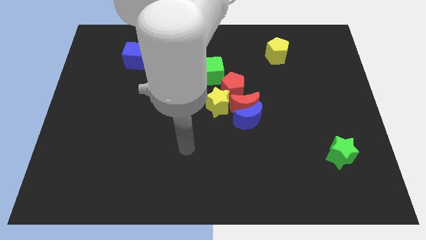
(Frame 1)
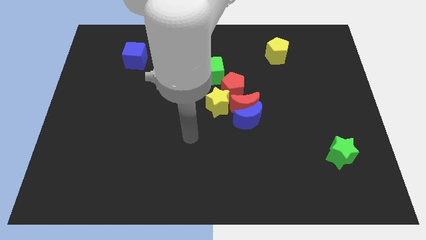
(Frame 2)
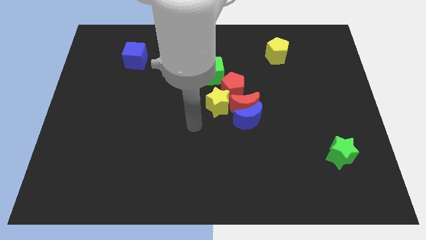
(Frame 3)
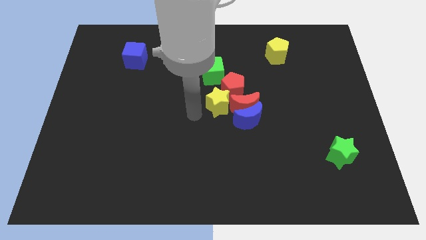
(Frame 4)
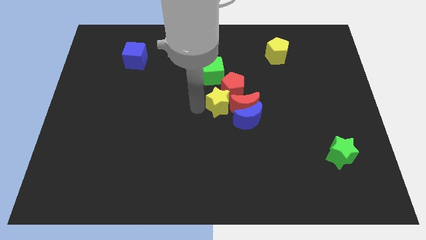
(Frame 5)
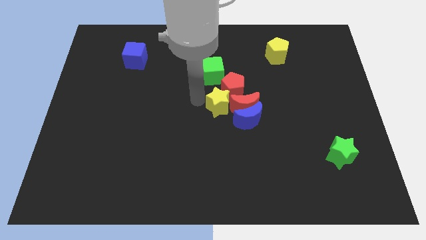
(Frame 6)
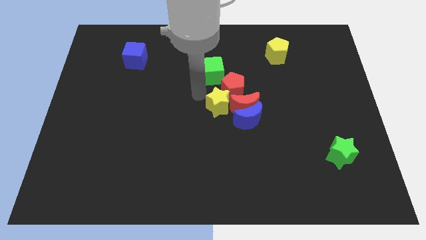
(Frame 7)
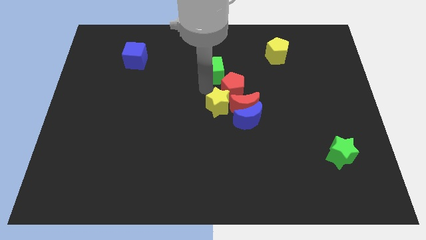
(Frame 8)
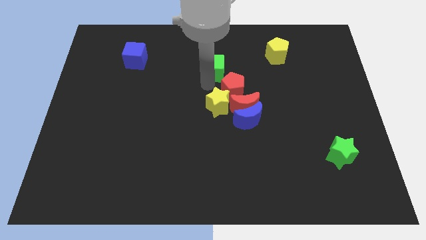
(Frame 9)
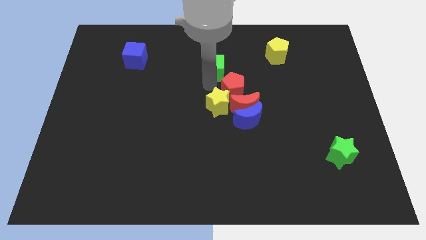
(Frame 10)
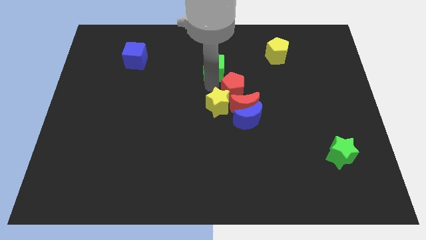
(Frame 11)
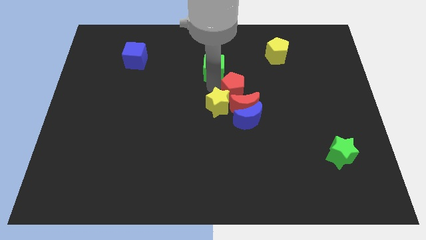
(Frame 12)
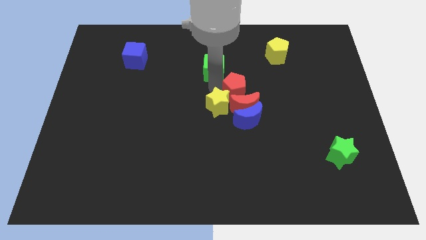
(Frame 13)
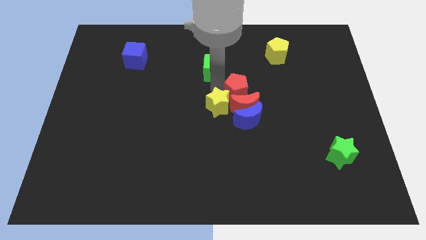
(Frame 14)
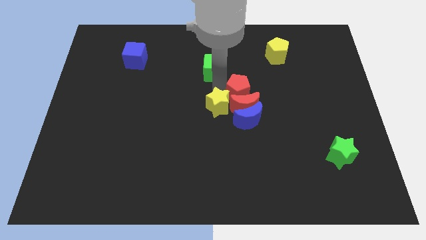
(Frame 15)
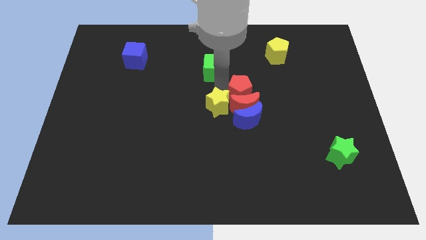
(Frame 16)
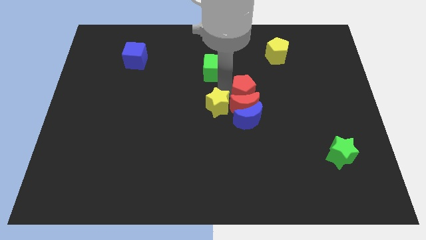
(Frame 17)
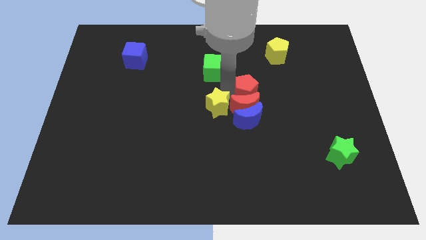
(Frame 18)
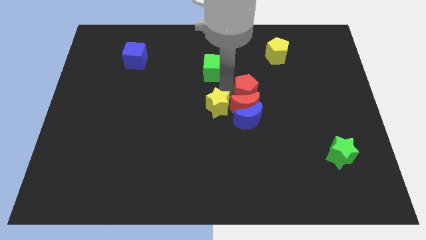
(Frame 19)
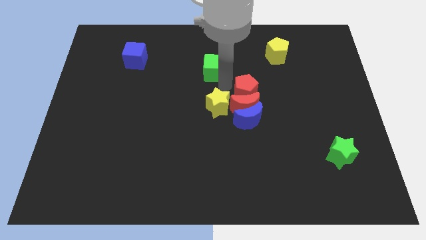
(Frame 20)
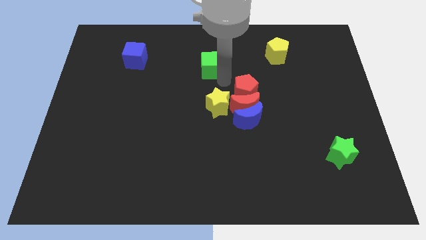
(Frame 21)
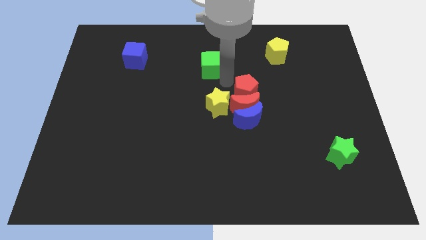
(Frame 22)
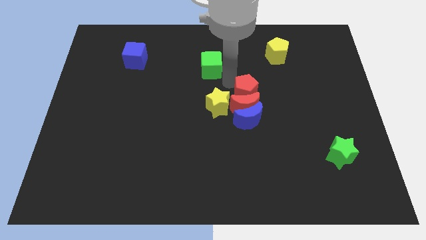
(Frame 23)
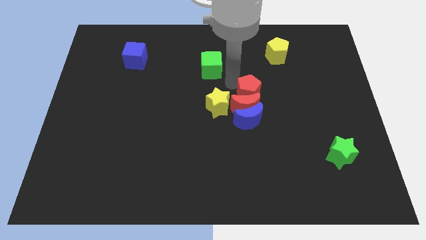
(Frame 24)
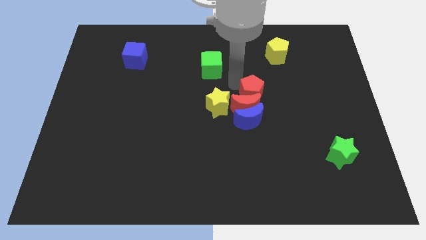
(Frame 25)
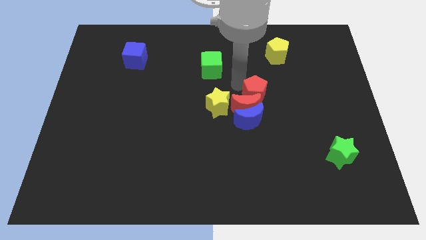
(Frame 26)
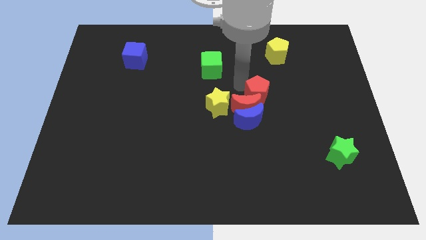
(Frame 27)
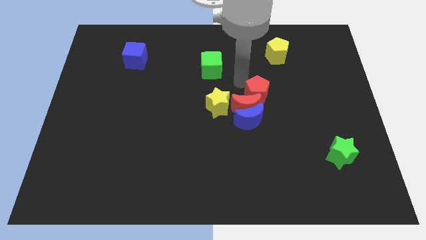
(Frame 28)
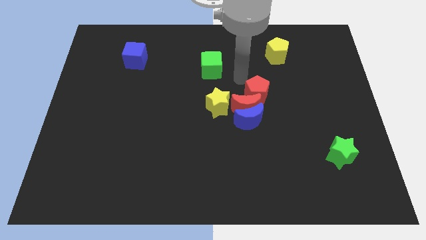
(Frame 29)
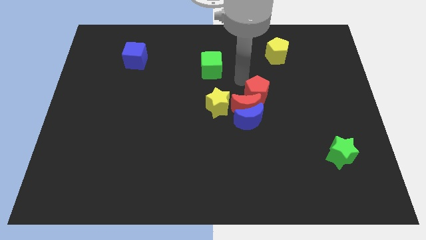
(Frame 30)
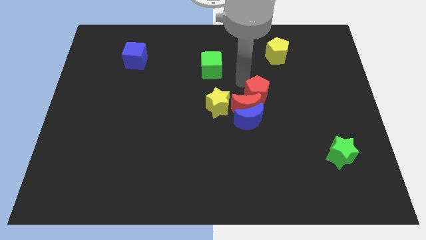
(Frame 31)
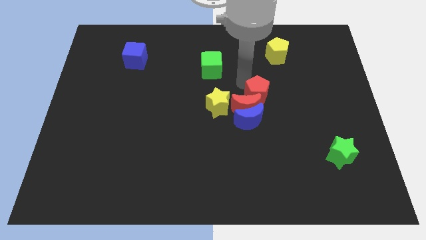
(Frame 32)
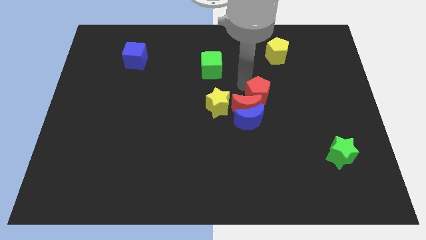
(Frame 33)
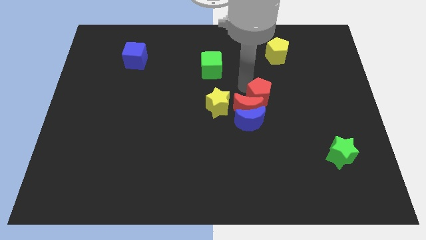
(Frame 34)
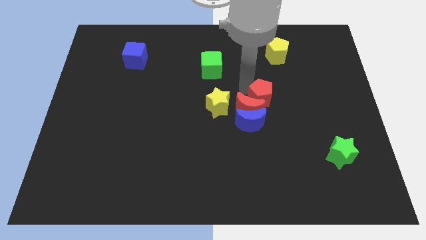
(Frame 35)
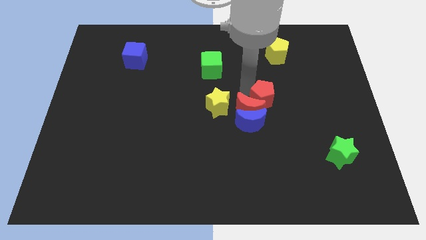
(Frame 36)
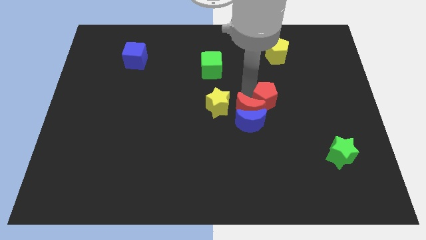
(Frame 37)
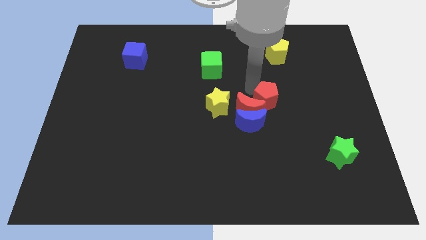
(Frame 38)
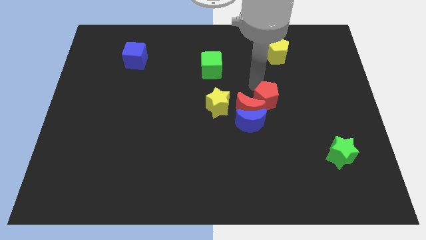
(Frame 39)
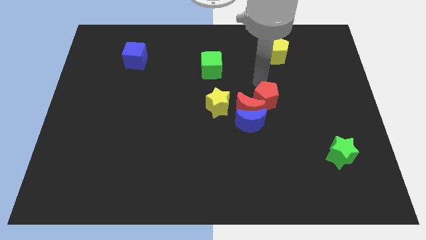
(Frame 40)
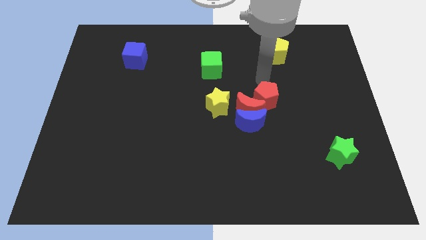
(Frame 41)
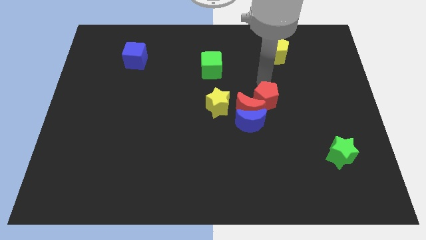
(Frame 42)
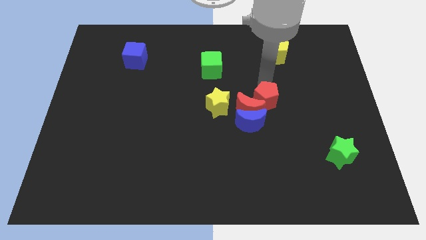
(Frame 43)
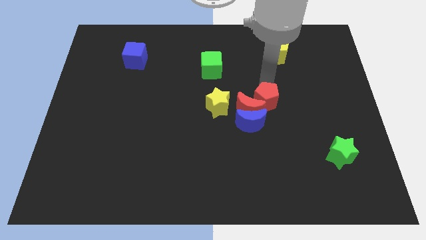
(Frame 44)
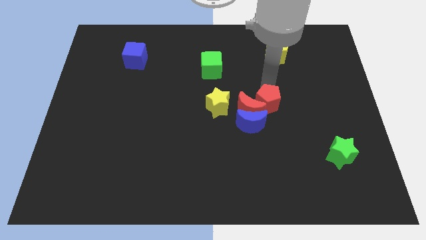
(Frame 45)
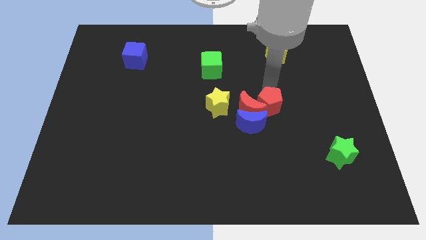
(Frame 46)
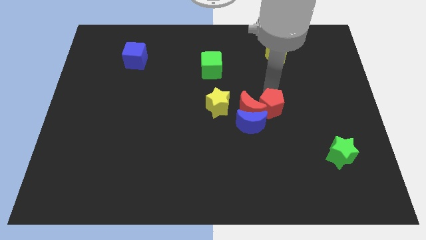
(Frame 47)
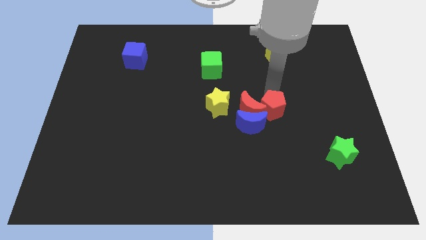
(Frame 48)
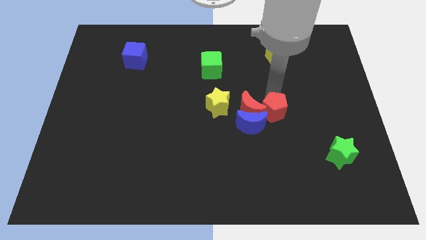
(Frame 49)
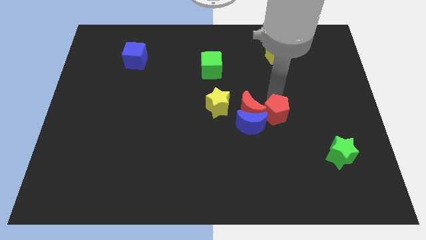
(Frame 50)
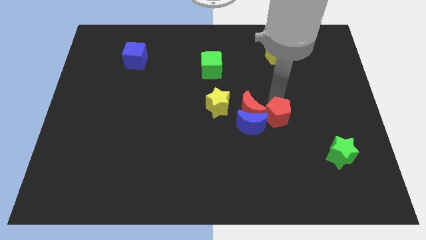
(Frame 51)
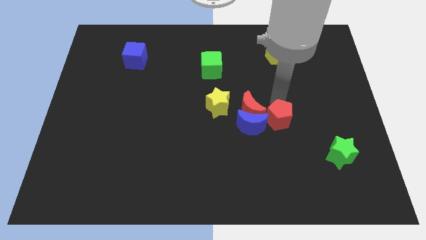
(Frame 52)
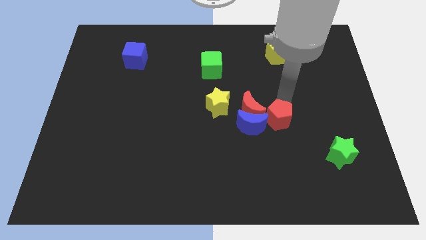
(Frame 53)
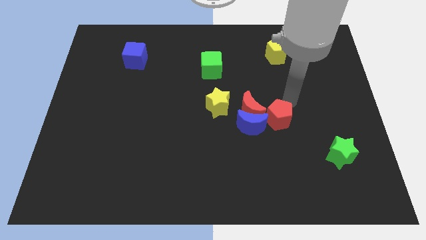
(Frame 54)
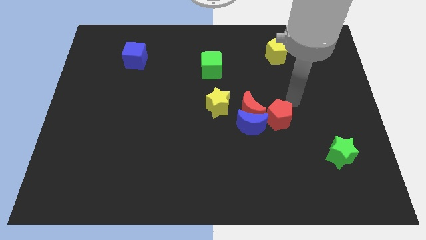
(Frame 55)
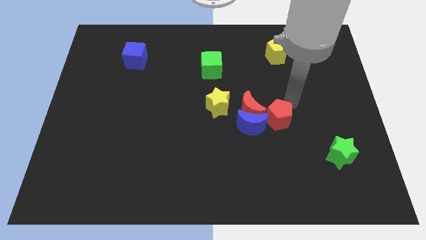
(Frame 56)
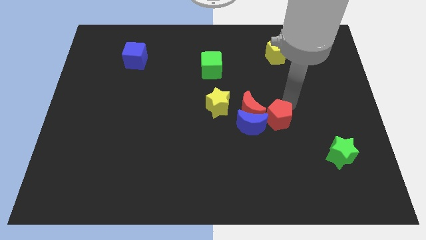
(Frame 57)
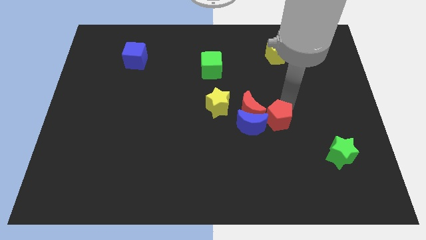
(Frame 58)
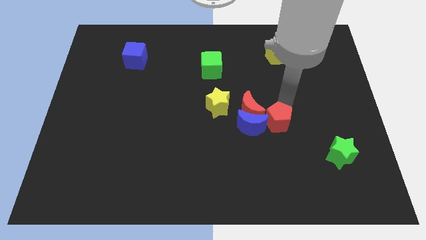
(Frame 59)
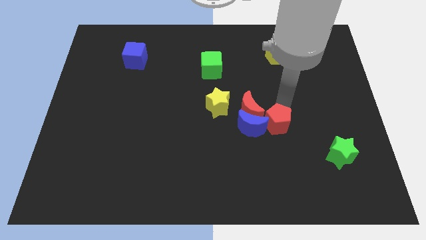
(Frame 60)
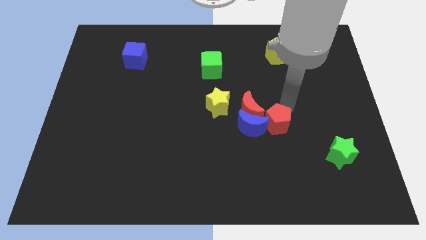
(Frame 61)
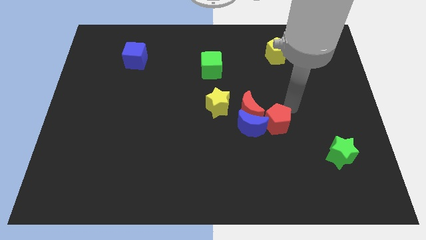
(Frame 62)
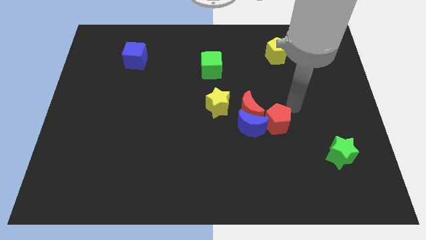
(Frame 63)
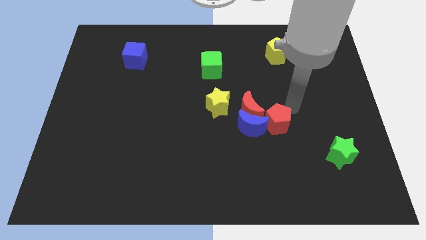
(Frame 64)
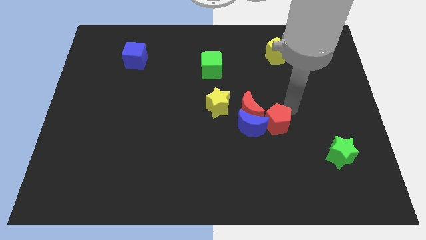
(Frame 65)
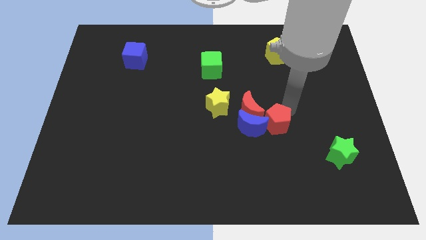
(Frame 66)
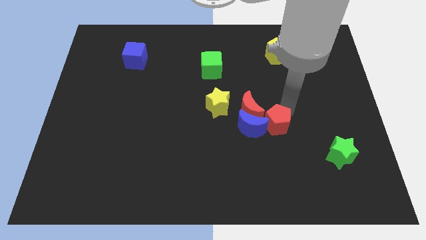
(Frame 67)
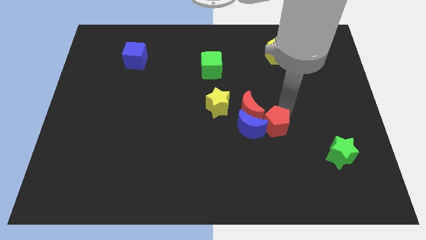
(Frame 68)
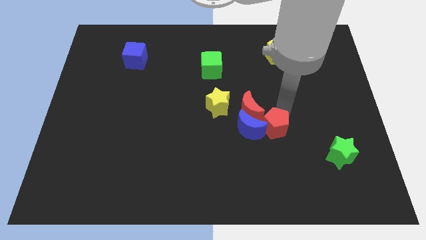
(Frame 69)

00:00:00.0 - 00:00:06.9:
slide the red pentagon downwards a little

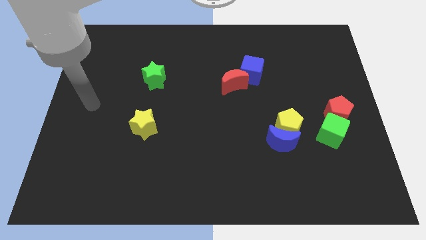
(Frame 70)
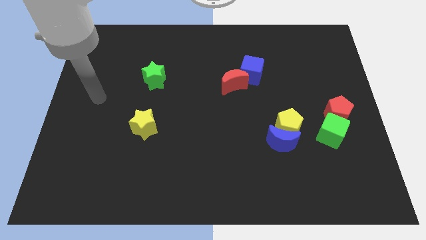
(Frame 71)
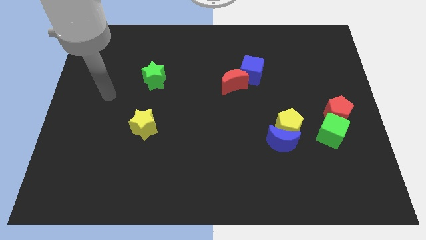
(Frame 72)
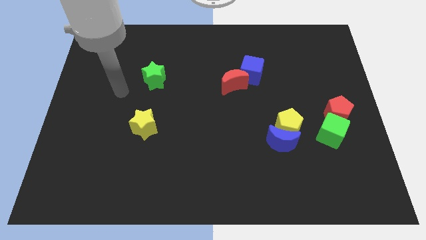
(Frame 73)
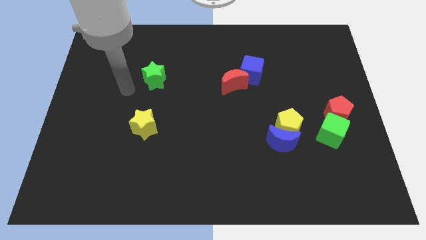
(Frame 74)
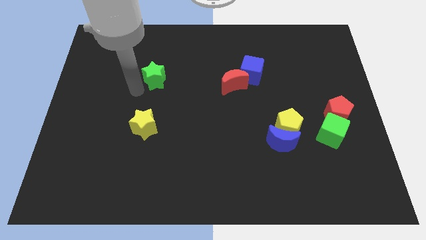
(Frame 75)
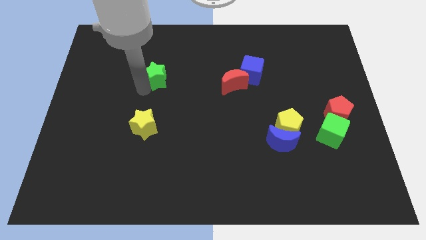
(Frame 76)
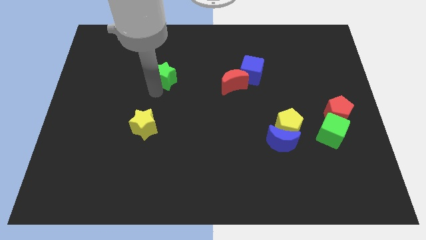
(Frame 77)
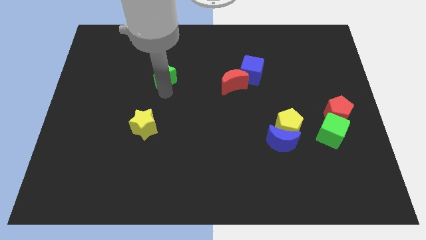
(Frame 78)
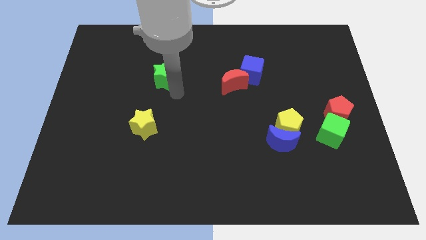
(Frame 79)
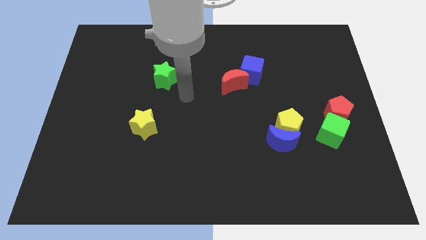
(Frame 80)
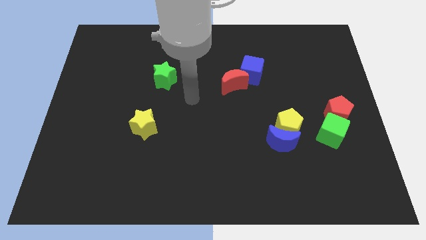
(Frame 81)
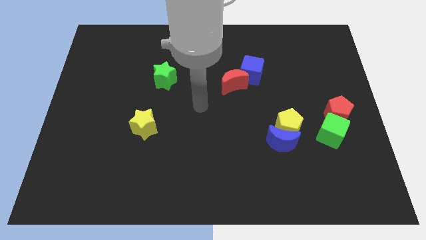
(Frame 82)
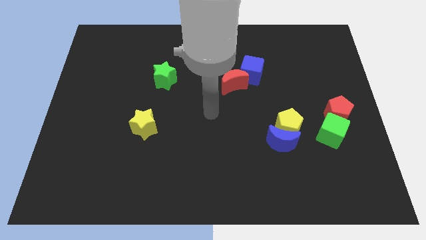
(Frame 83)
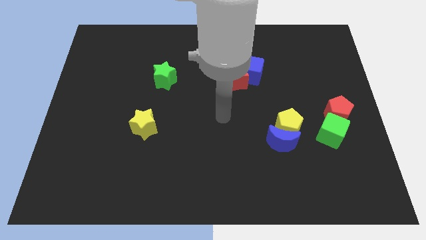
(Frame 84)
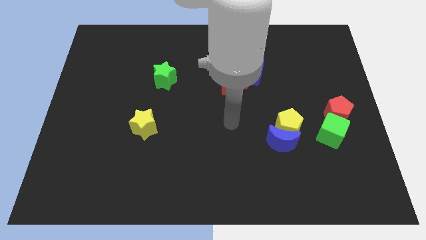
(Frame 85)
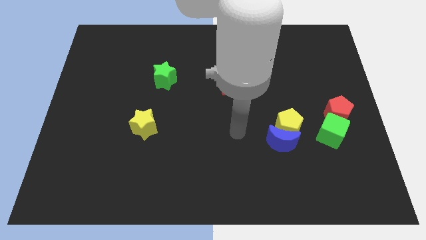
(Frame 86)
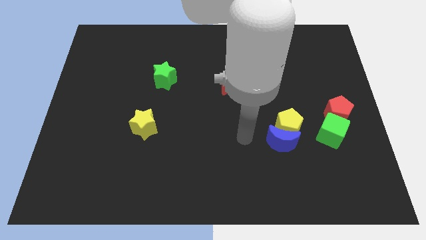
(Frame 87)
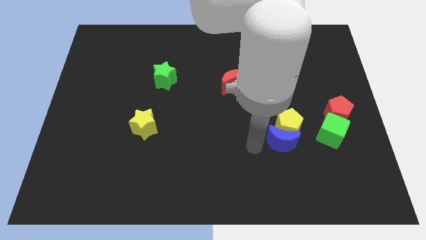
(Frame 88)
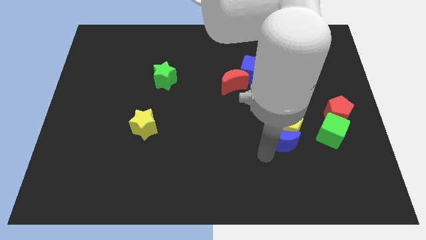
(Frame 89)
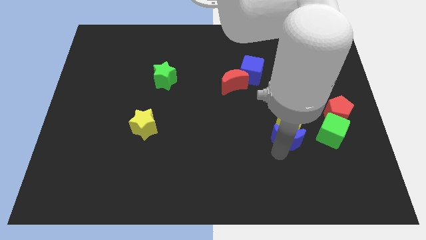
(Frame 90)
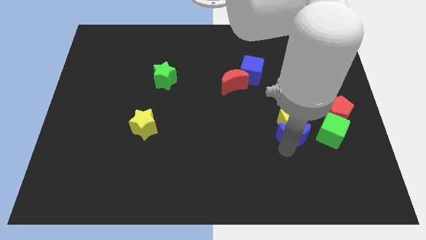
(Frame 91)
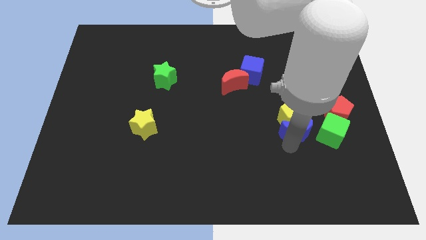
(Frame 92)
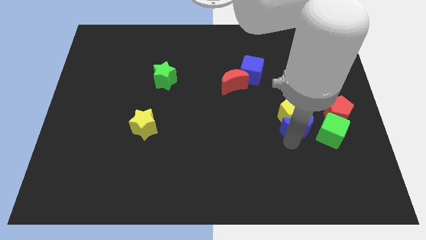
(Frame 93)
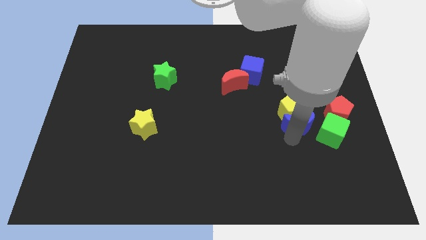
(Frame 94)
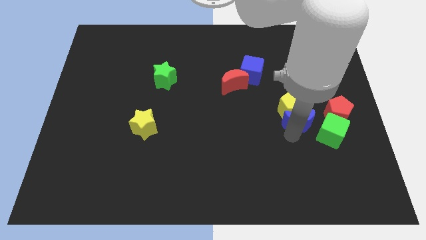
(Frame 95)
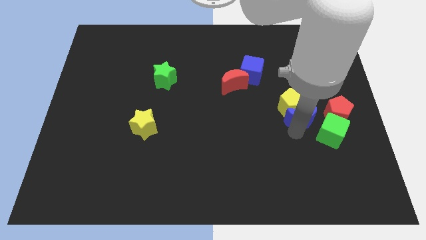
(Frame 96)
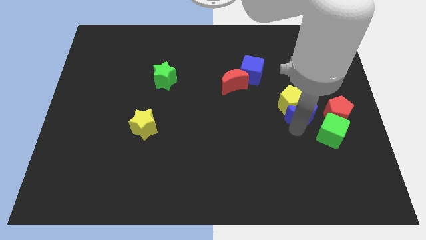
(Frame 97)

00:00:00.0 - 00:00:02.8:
move the yellow pentagon somewhat upwards
